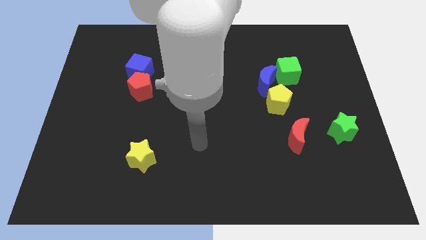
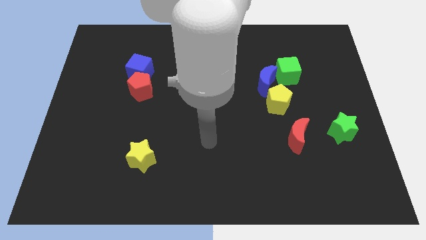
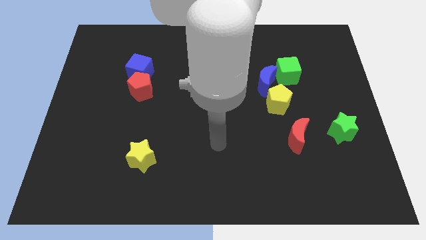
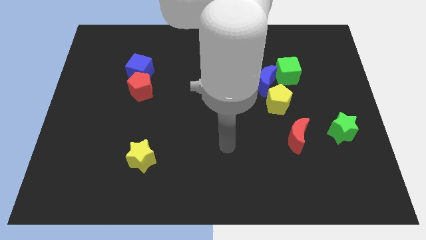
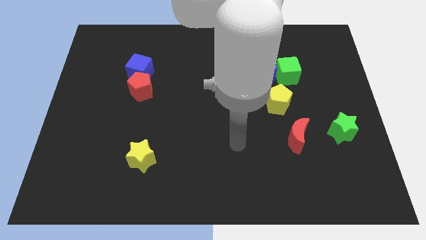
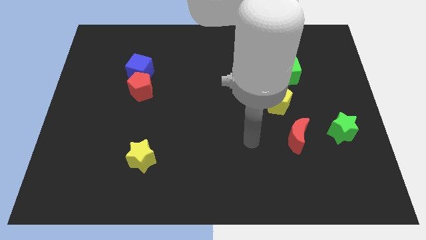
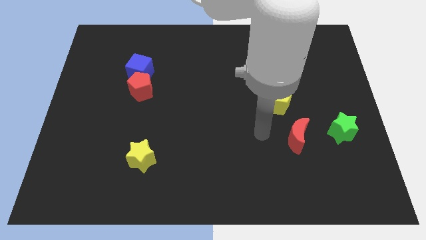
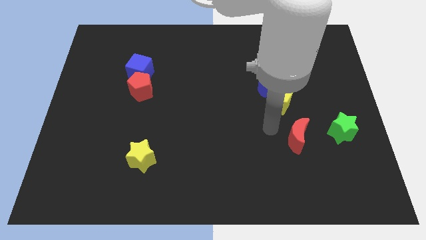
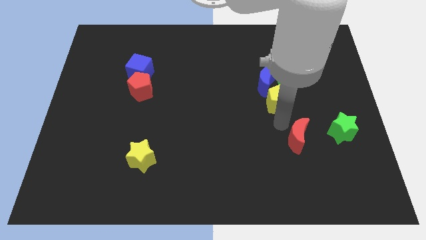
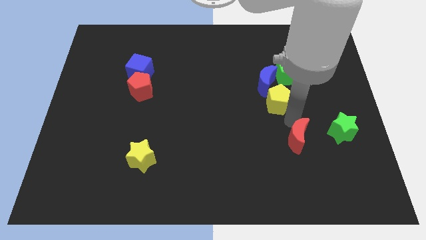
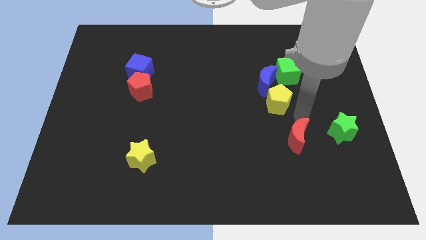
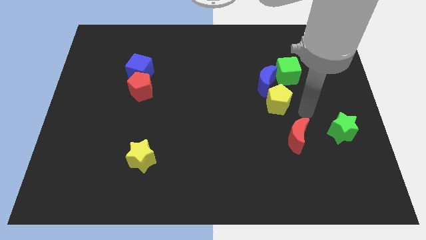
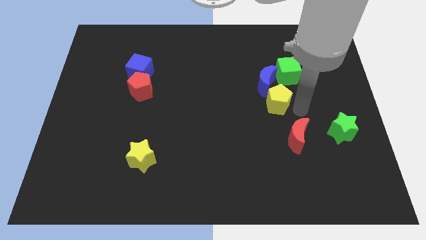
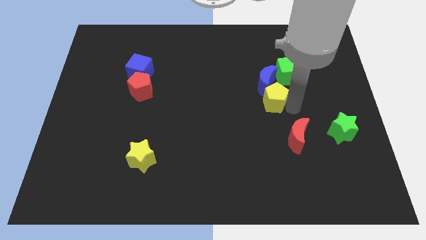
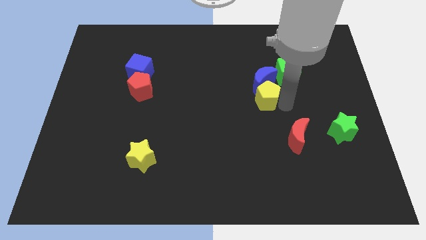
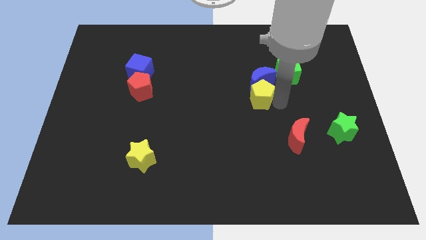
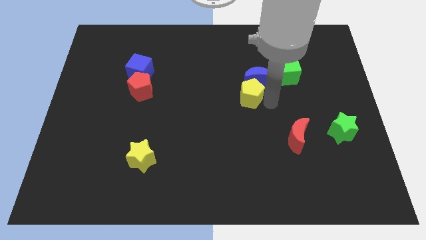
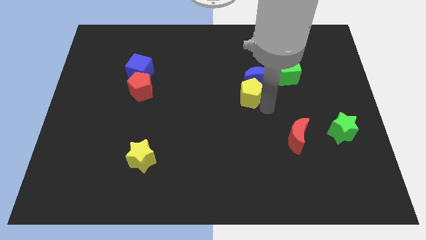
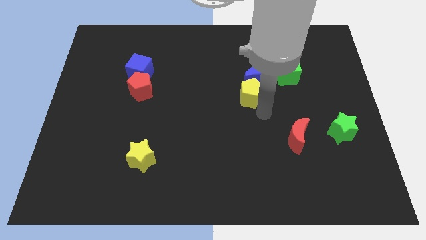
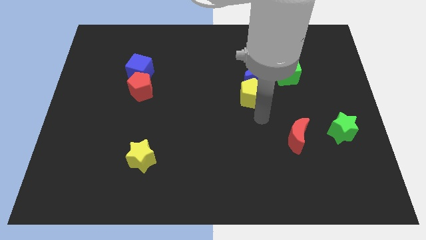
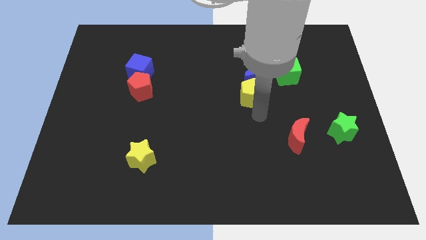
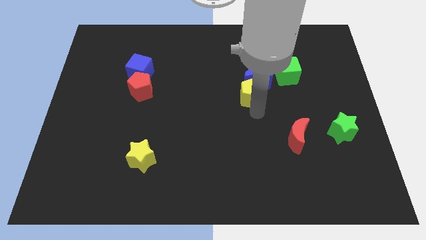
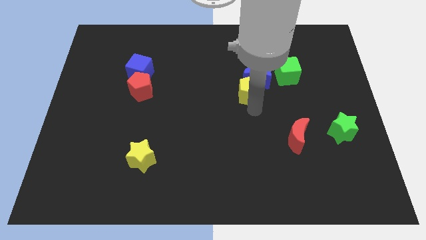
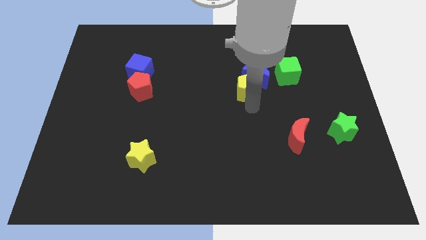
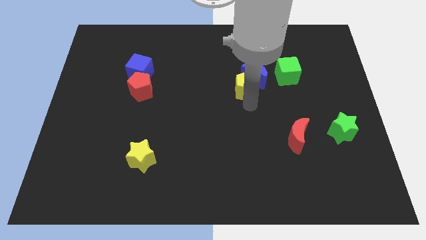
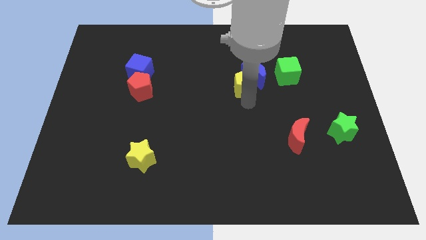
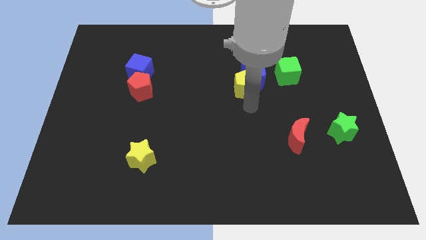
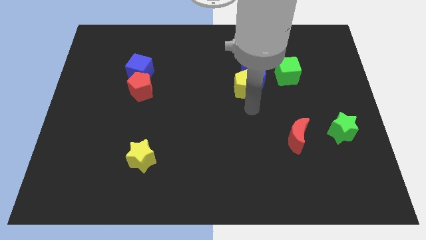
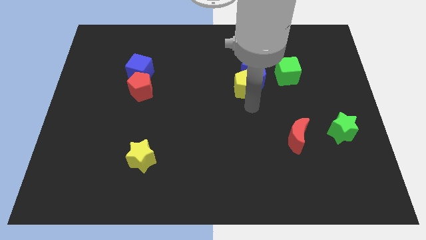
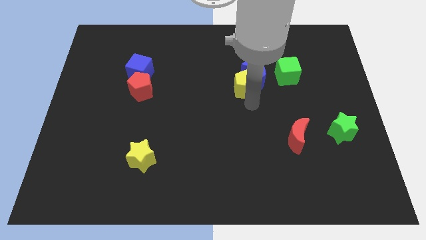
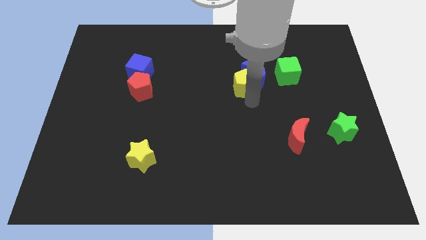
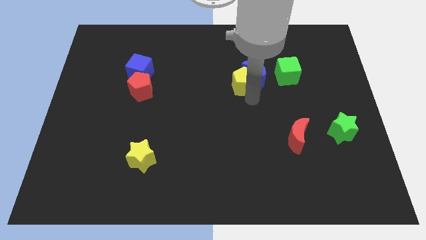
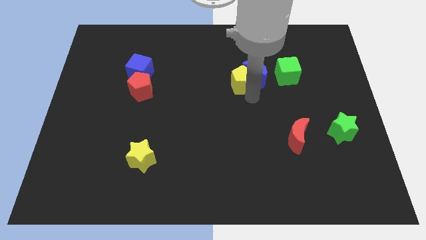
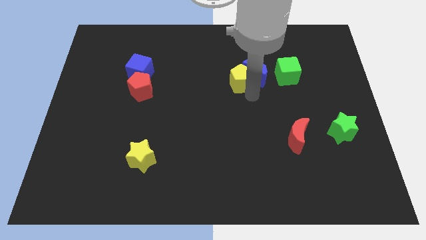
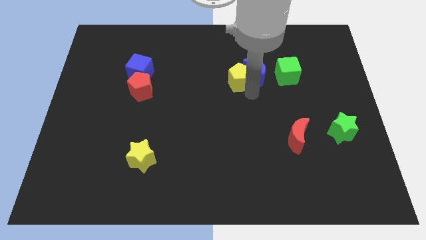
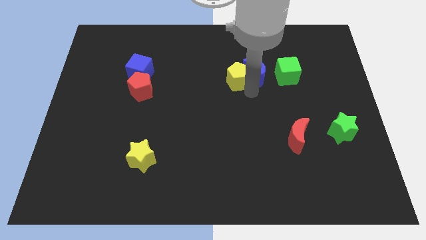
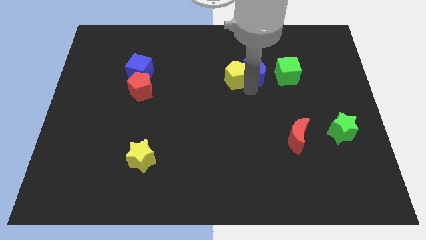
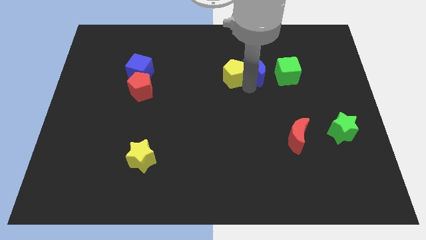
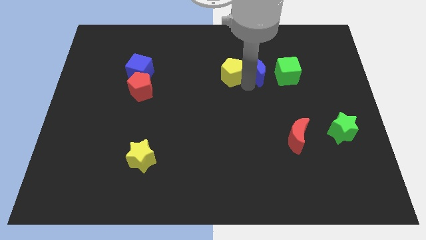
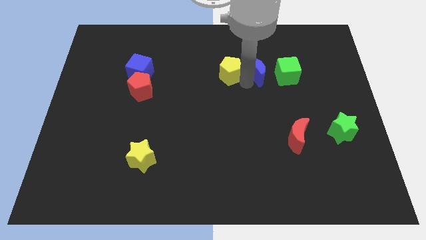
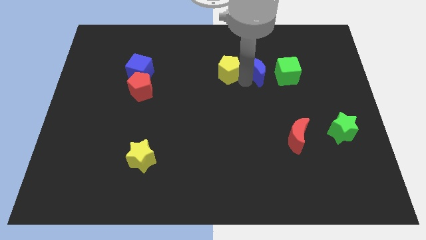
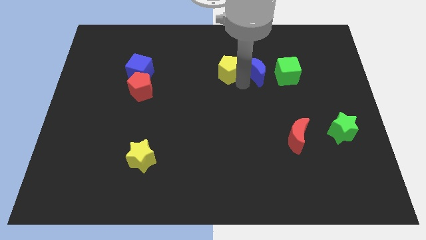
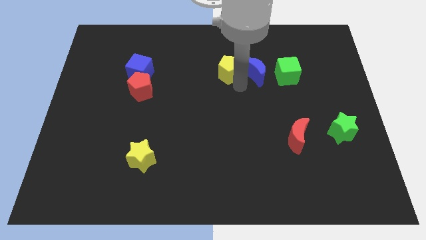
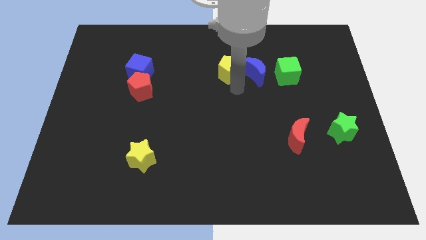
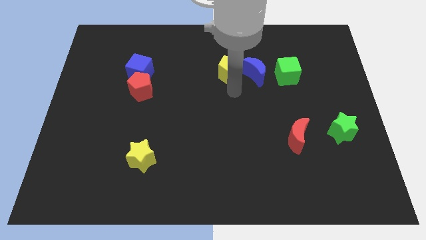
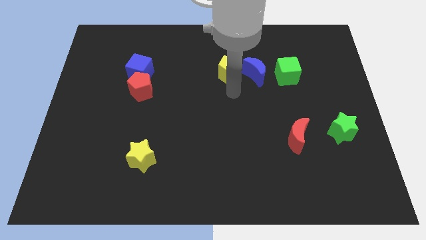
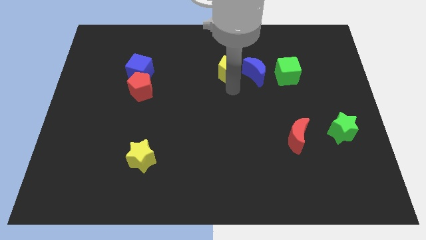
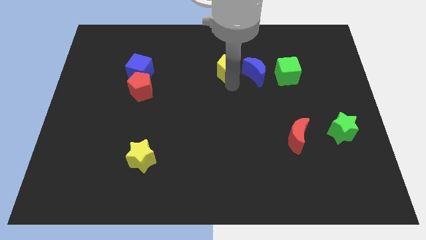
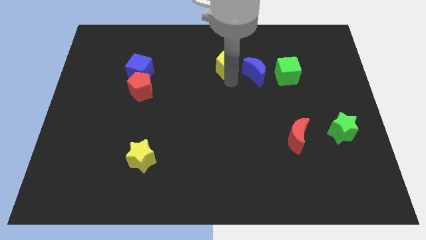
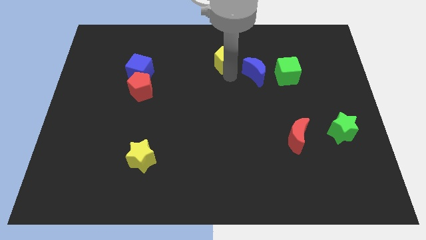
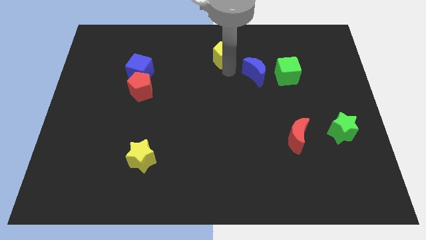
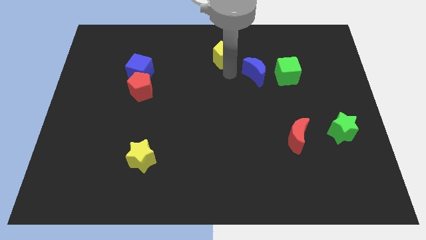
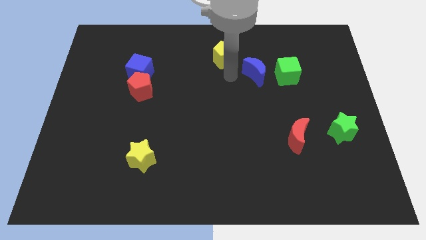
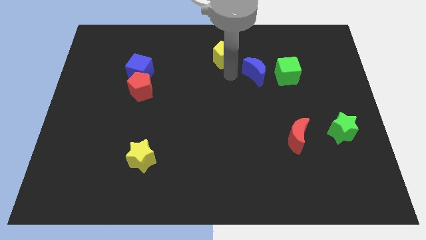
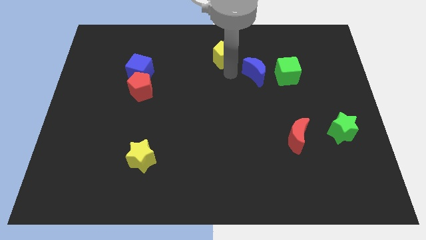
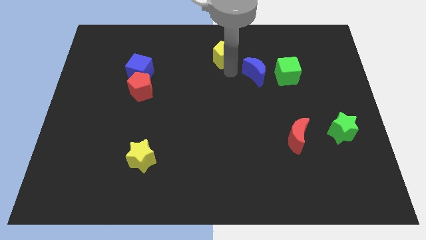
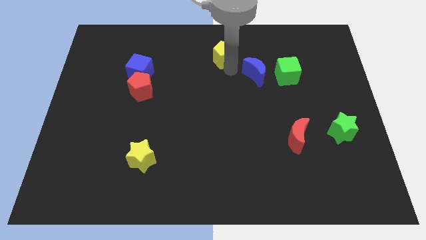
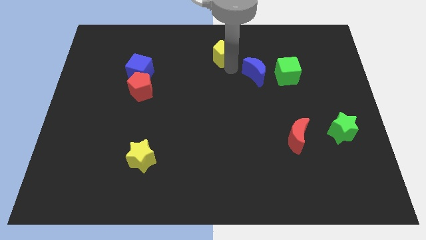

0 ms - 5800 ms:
slide the yellow pentagon to the top side

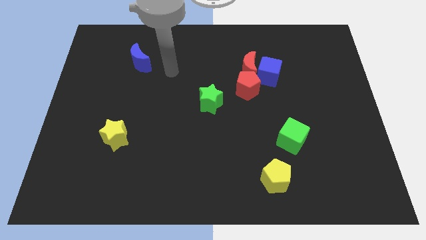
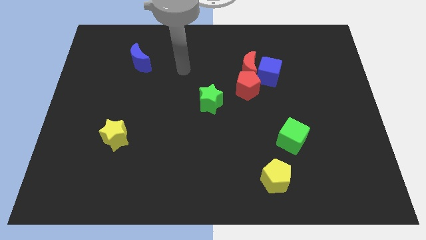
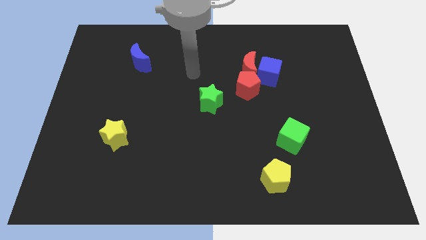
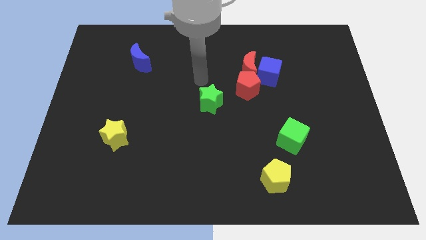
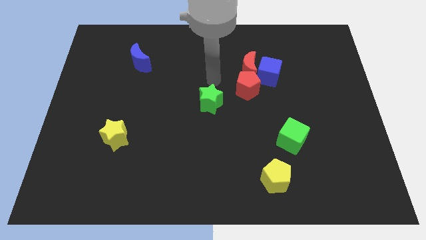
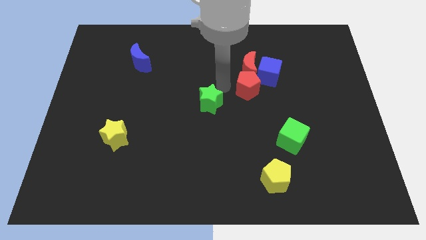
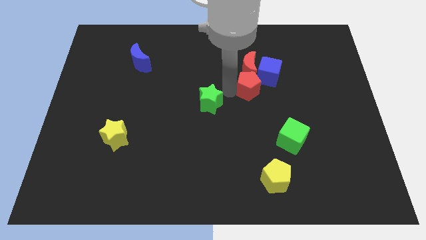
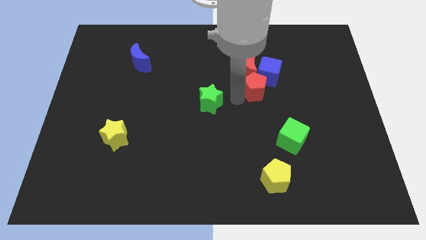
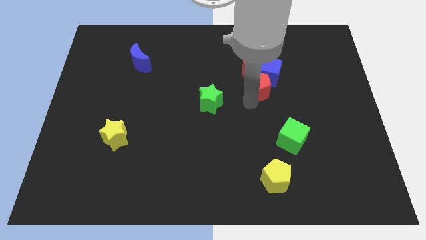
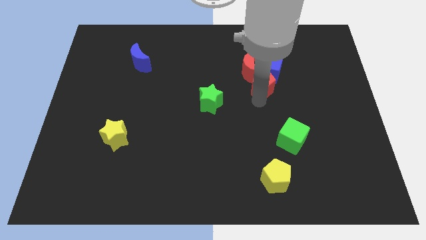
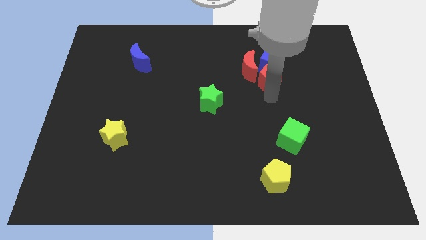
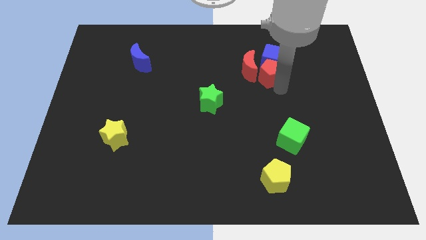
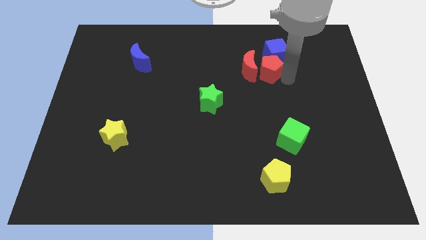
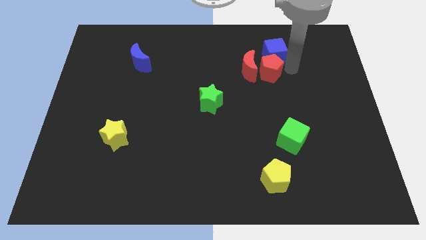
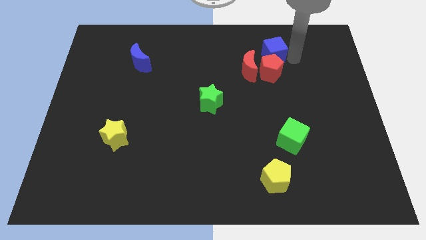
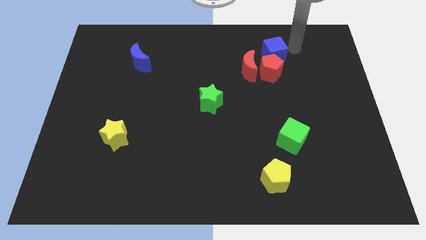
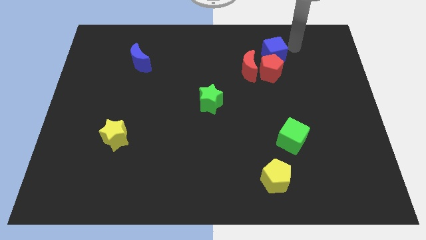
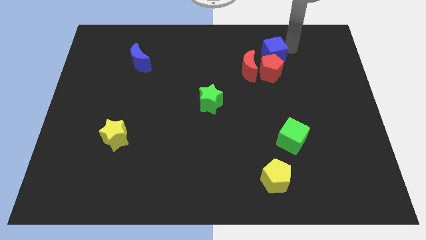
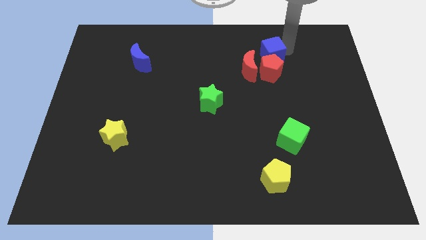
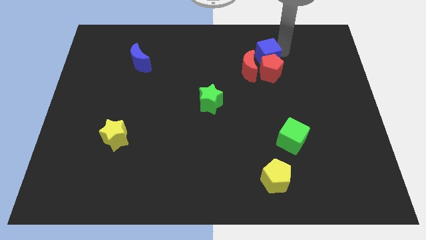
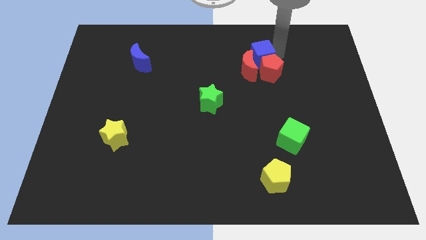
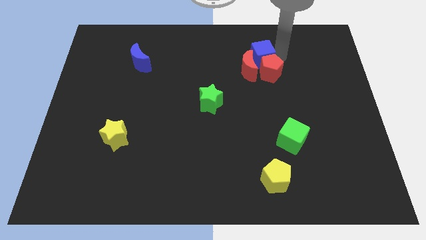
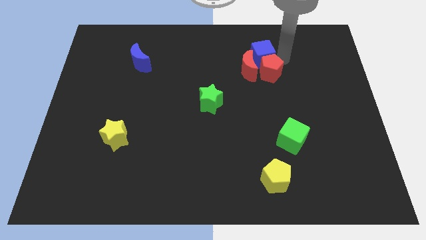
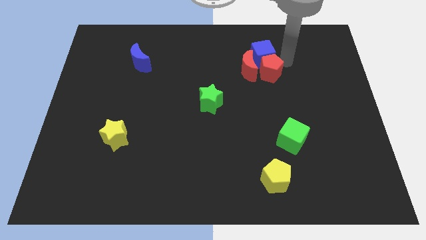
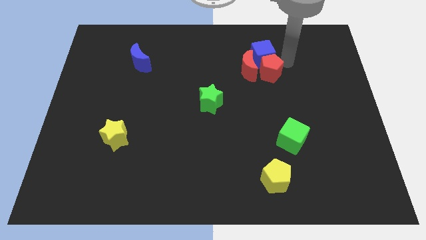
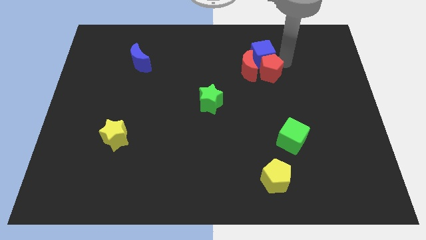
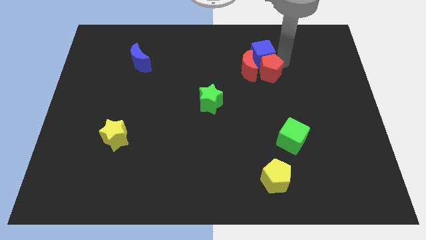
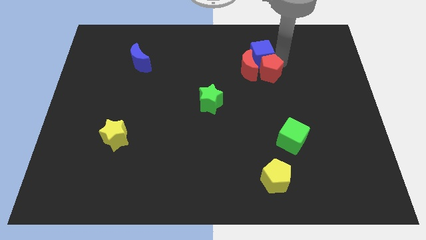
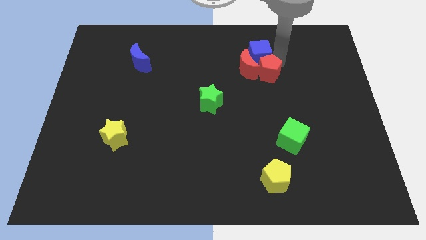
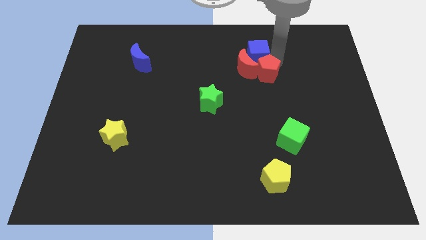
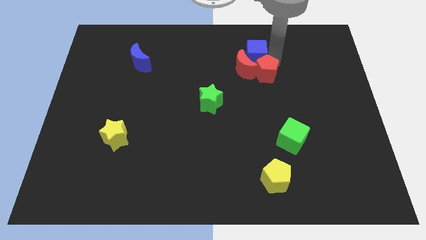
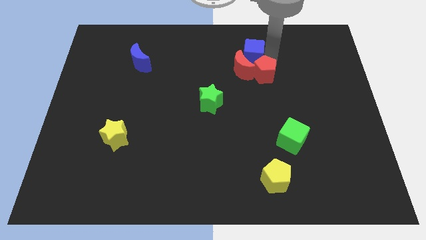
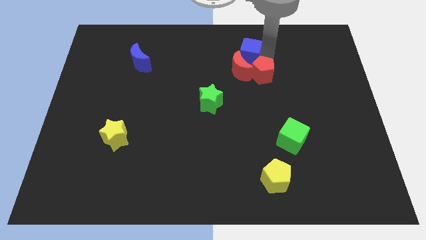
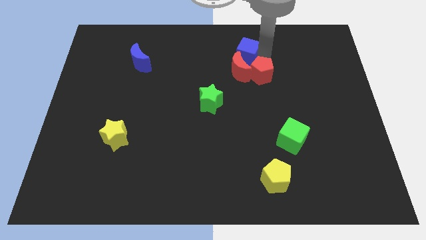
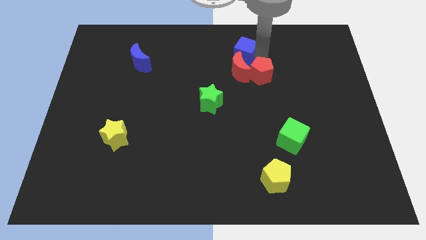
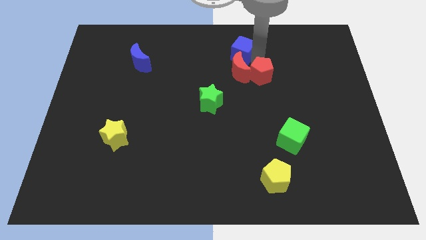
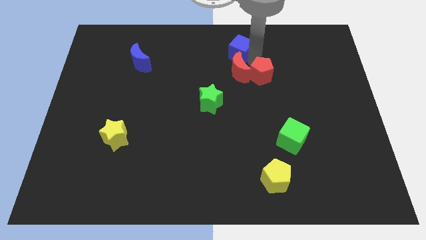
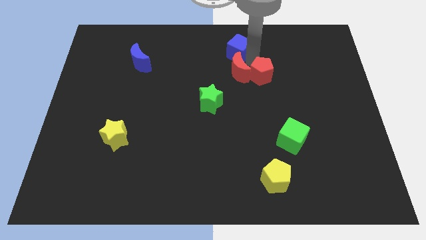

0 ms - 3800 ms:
move the blue cube to the top side
